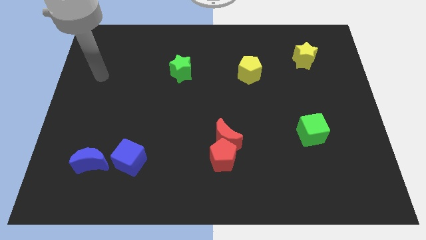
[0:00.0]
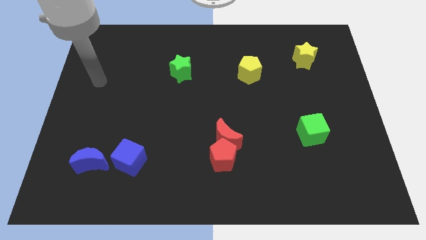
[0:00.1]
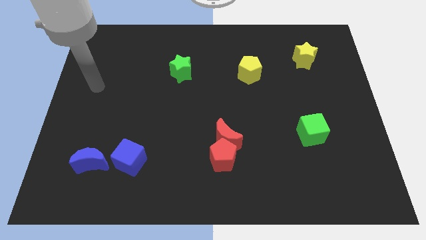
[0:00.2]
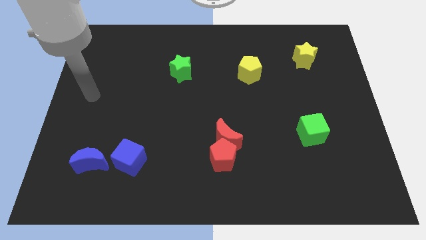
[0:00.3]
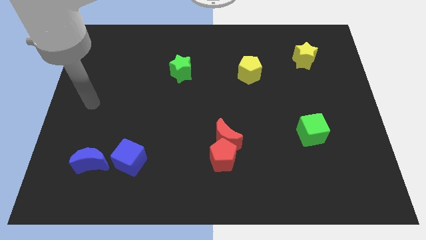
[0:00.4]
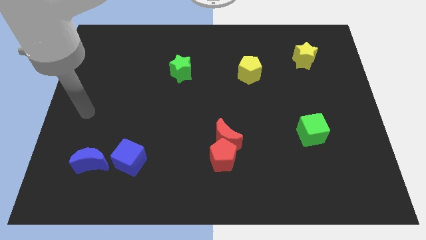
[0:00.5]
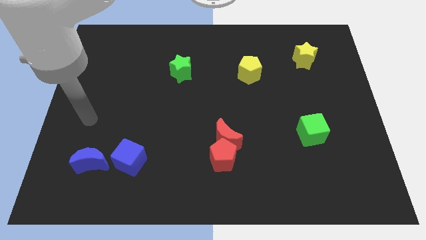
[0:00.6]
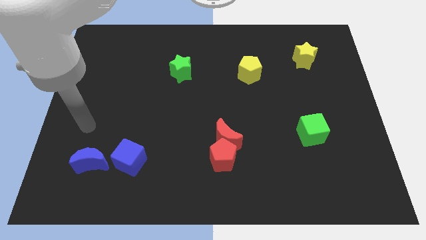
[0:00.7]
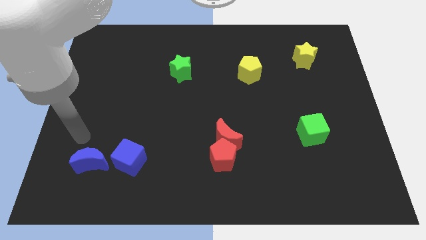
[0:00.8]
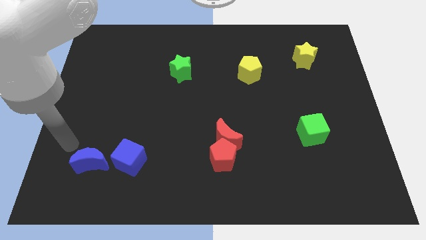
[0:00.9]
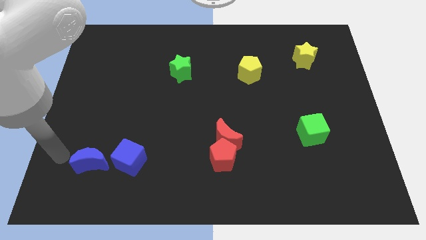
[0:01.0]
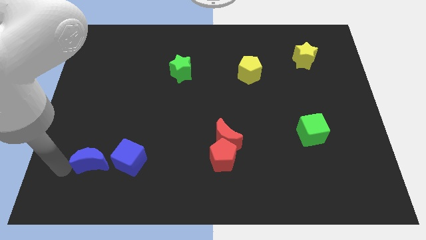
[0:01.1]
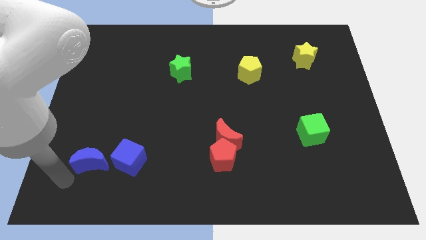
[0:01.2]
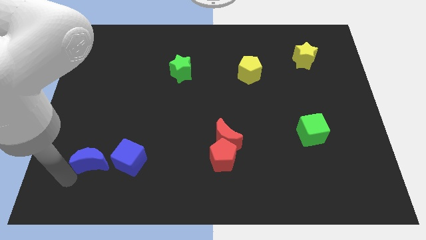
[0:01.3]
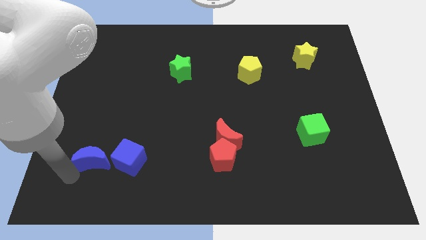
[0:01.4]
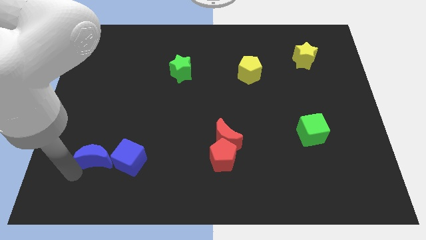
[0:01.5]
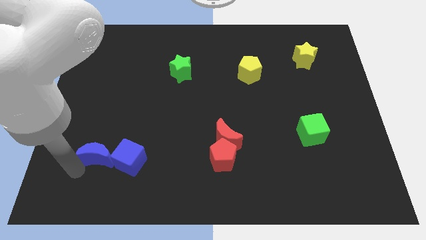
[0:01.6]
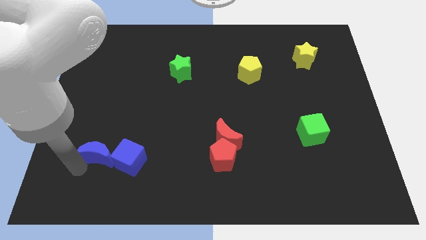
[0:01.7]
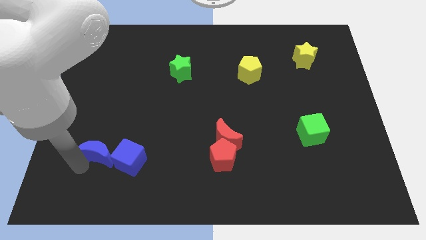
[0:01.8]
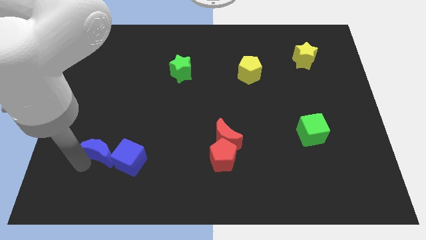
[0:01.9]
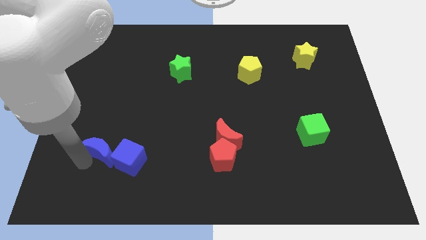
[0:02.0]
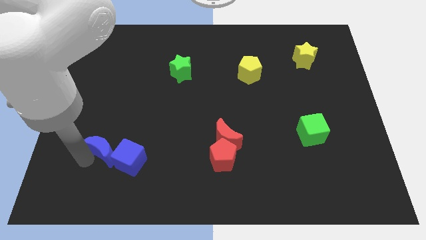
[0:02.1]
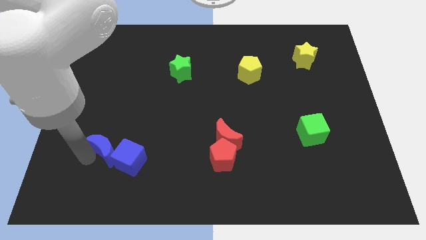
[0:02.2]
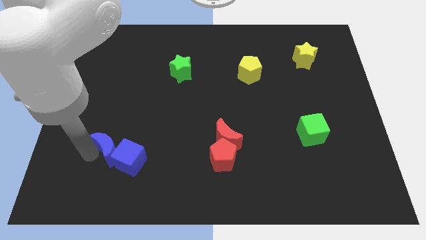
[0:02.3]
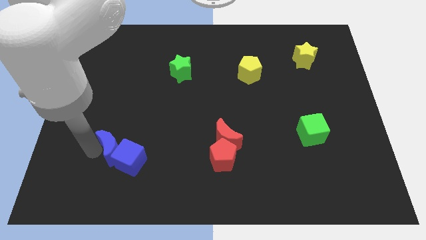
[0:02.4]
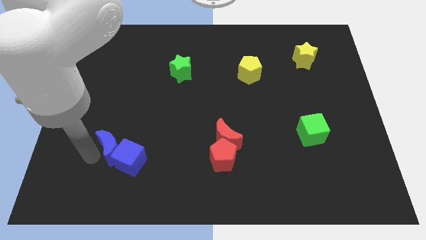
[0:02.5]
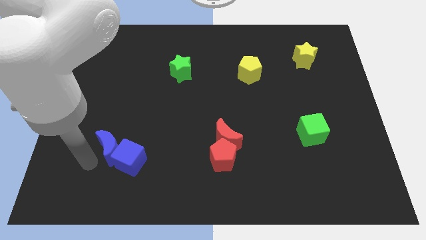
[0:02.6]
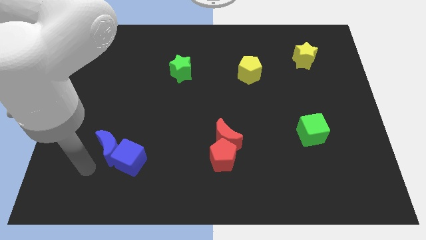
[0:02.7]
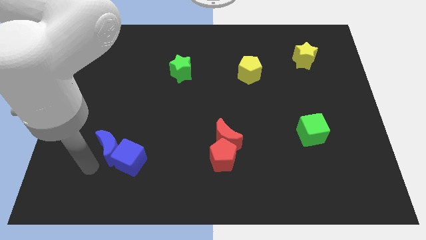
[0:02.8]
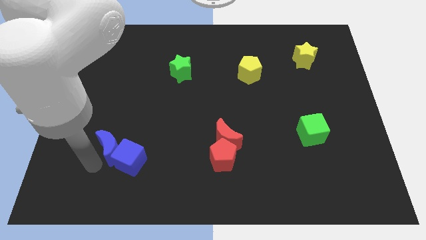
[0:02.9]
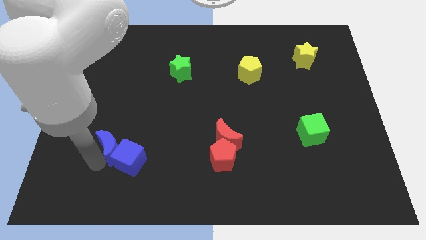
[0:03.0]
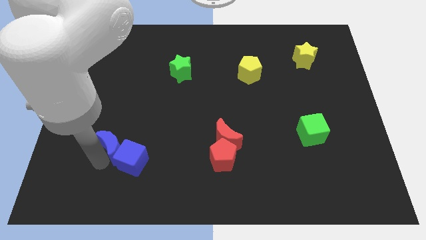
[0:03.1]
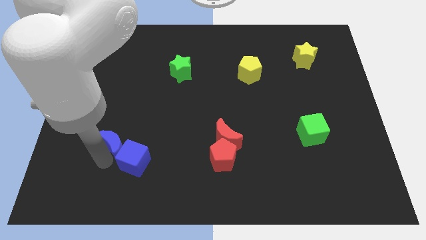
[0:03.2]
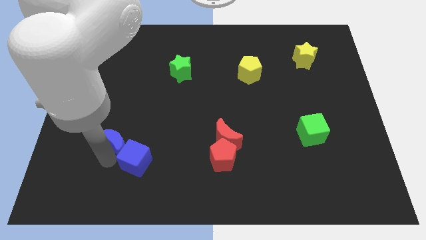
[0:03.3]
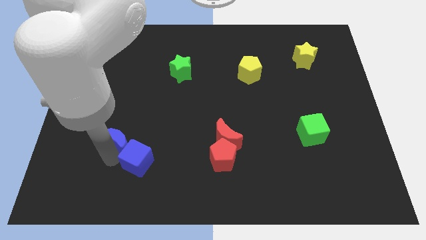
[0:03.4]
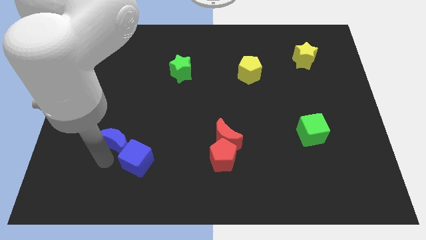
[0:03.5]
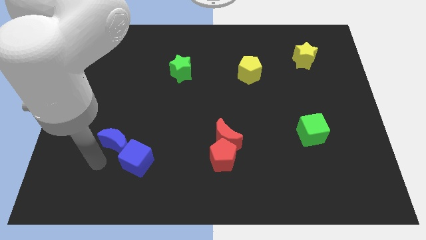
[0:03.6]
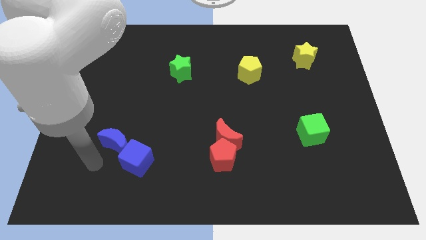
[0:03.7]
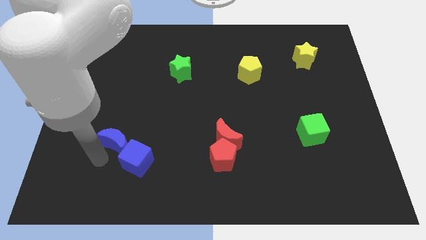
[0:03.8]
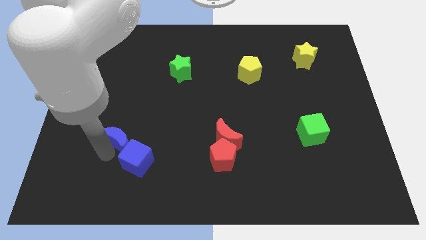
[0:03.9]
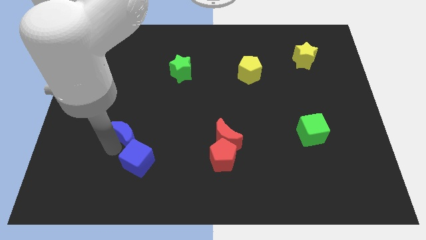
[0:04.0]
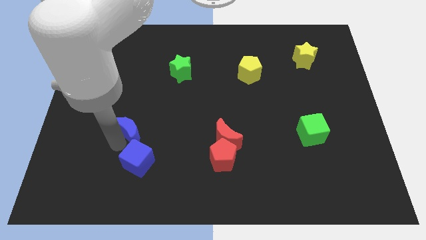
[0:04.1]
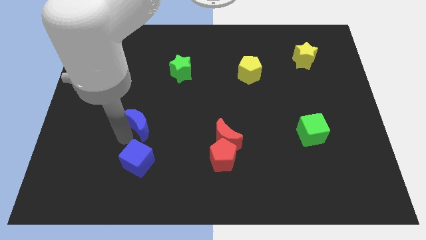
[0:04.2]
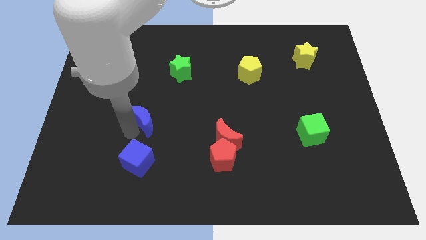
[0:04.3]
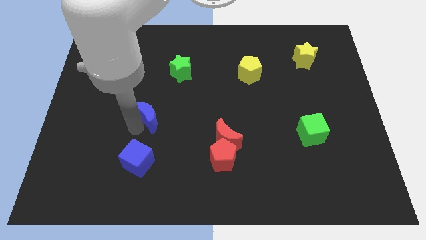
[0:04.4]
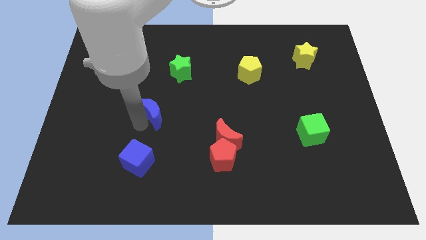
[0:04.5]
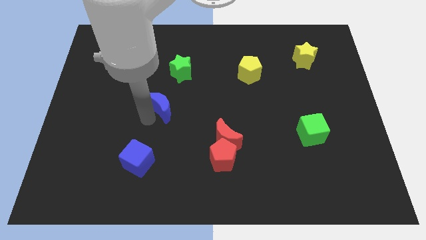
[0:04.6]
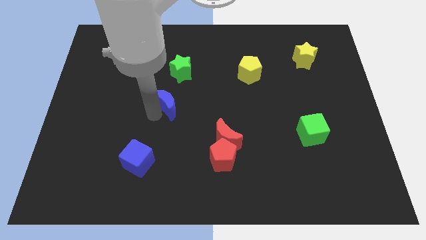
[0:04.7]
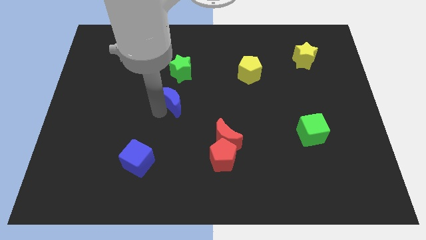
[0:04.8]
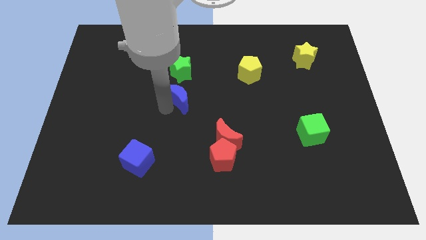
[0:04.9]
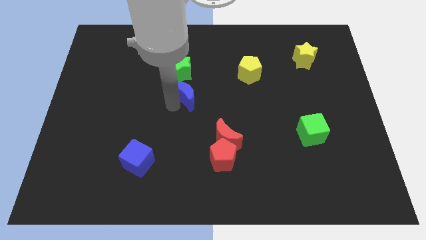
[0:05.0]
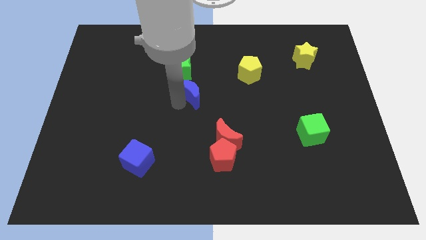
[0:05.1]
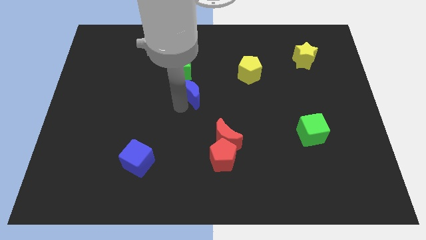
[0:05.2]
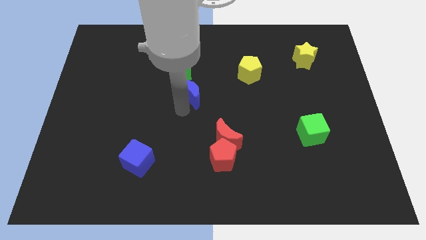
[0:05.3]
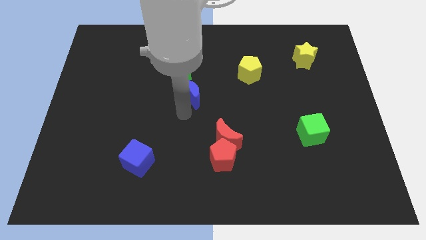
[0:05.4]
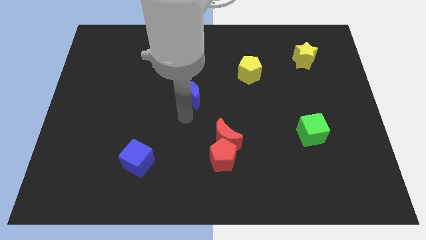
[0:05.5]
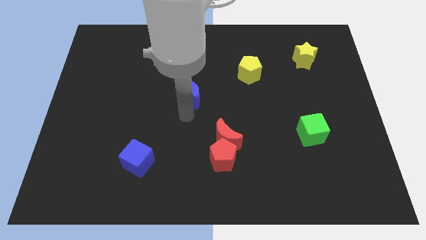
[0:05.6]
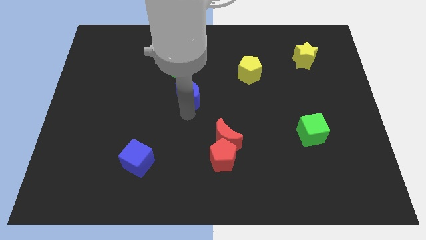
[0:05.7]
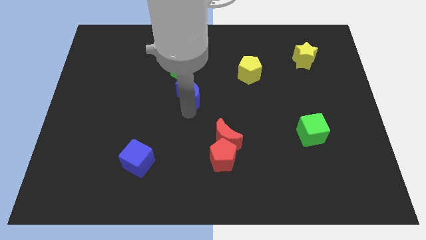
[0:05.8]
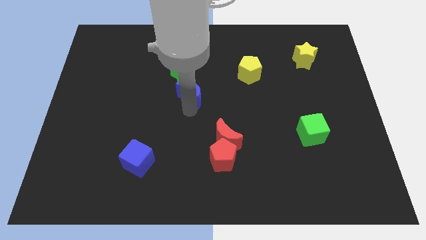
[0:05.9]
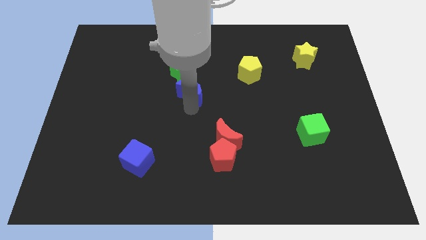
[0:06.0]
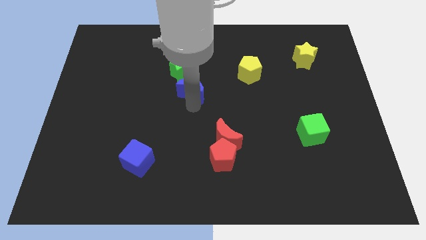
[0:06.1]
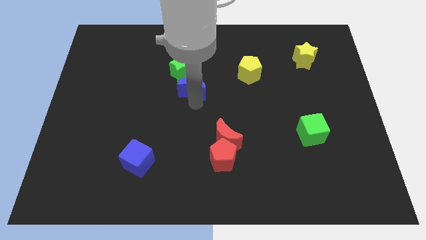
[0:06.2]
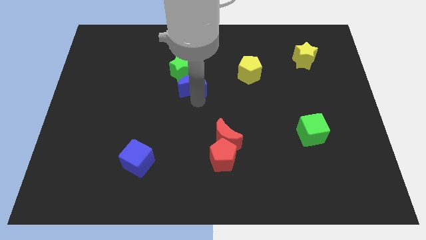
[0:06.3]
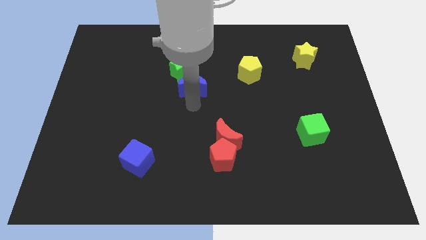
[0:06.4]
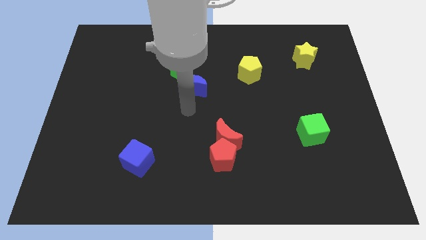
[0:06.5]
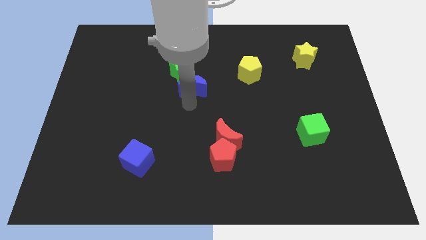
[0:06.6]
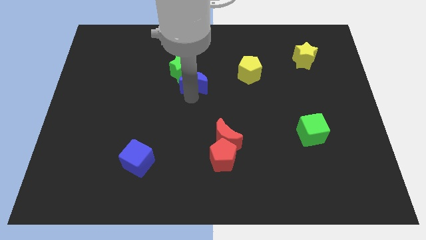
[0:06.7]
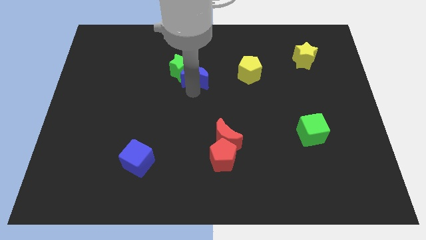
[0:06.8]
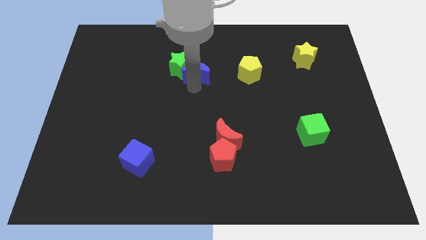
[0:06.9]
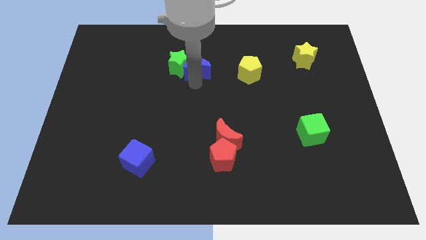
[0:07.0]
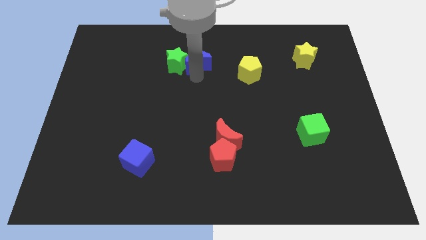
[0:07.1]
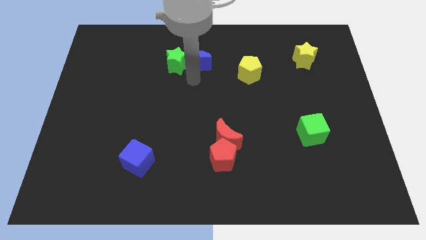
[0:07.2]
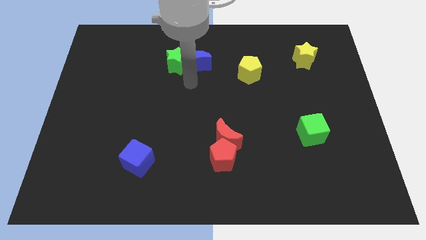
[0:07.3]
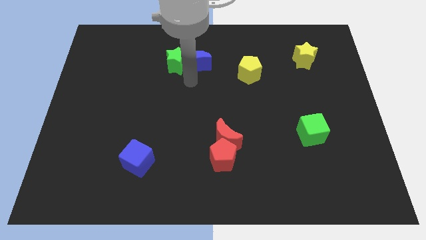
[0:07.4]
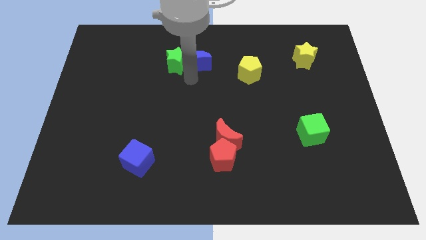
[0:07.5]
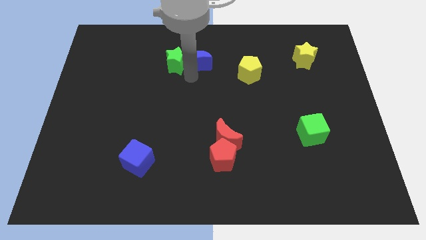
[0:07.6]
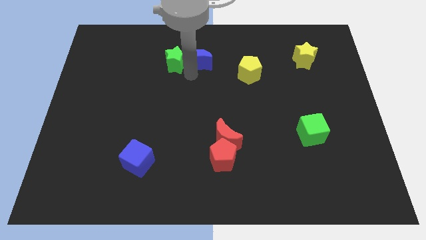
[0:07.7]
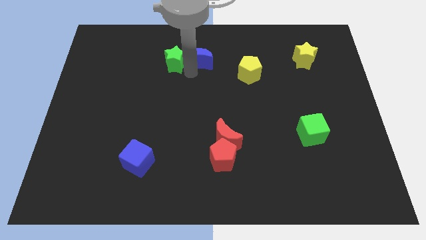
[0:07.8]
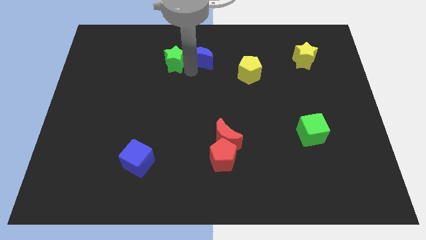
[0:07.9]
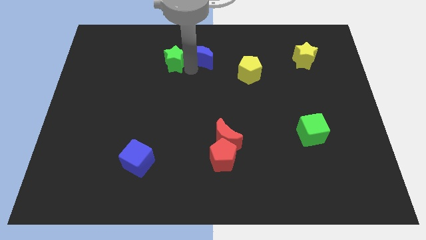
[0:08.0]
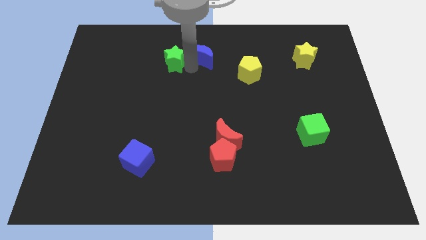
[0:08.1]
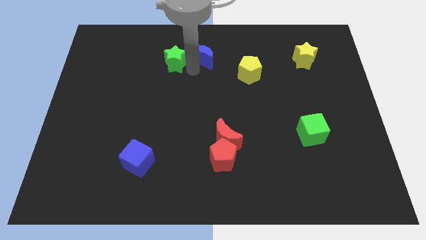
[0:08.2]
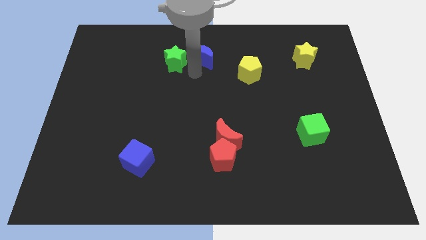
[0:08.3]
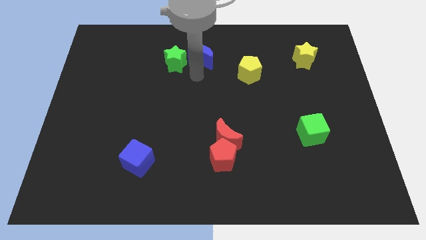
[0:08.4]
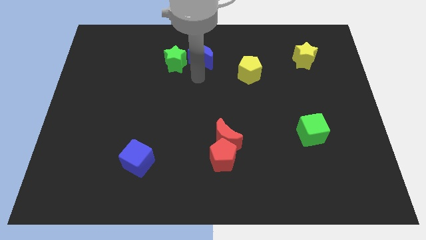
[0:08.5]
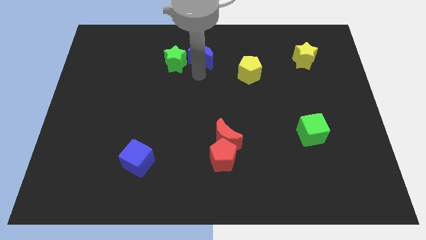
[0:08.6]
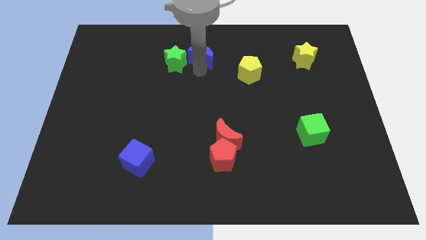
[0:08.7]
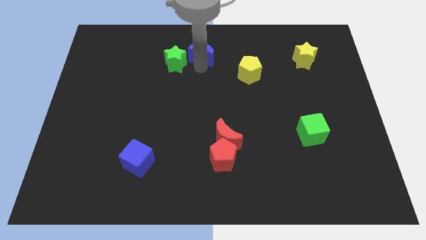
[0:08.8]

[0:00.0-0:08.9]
push the blue moon to the top side
